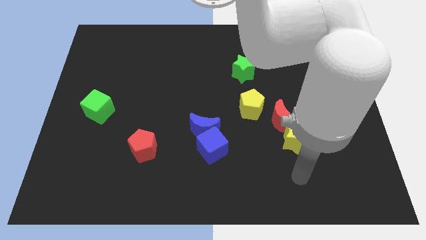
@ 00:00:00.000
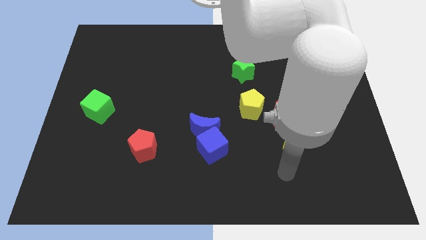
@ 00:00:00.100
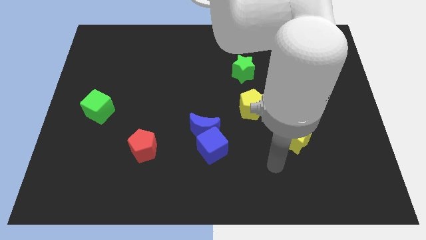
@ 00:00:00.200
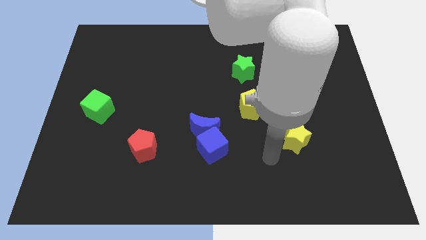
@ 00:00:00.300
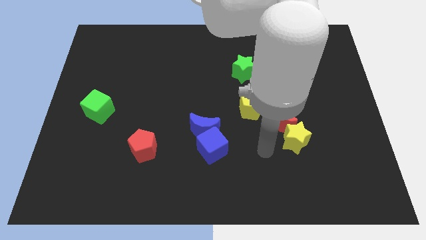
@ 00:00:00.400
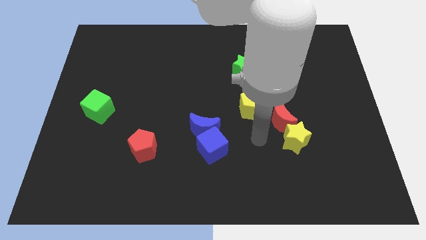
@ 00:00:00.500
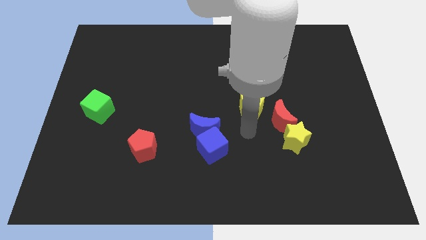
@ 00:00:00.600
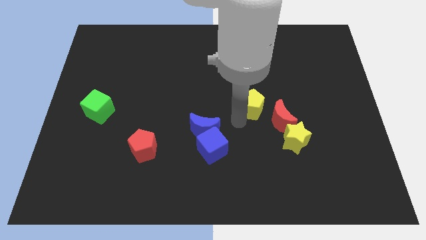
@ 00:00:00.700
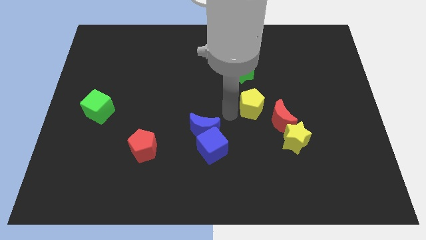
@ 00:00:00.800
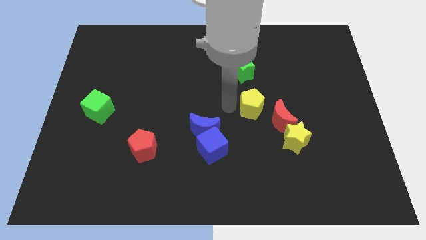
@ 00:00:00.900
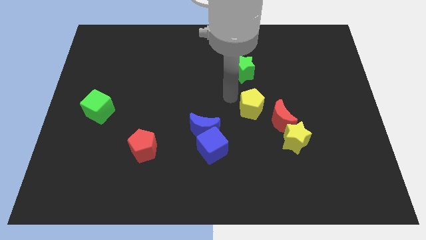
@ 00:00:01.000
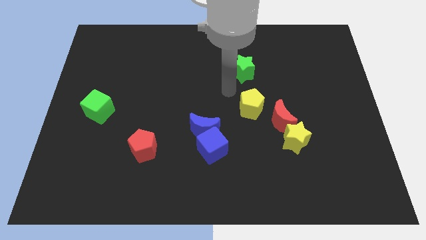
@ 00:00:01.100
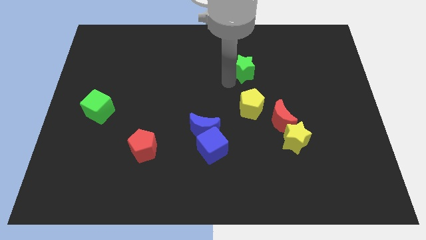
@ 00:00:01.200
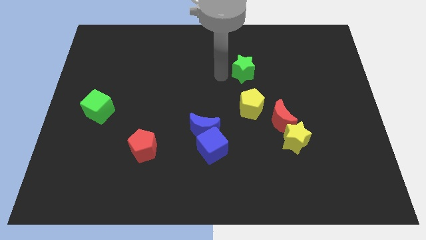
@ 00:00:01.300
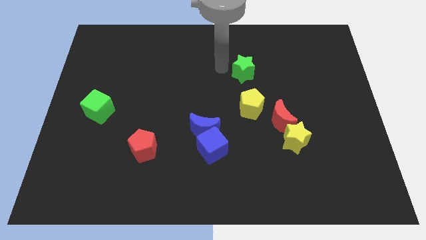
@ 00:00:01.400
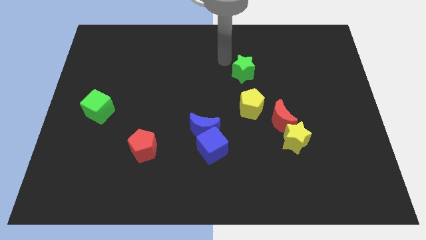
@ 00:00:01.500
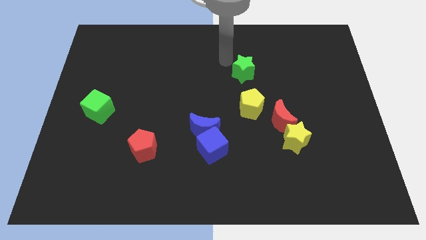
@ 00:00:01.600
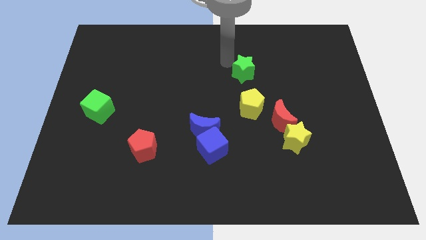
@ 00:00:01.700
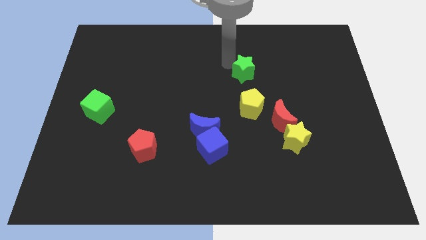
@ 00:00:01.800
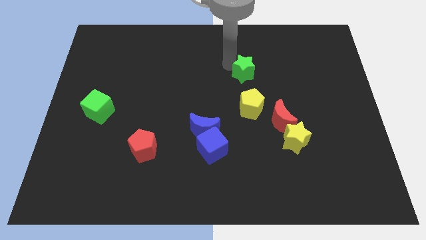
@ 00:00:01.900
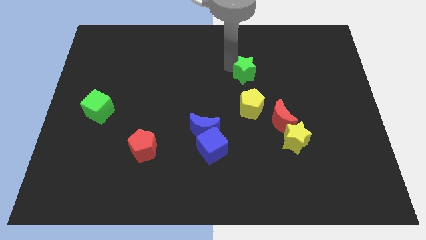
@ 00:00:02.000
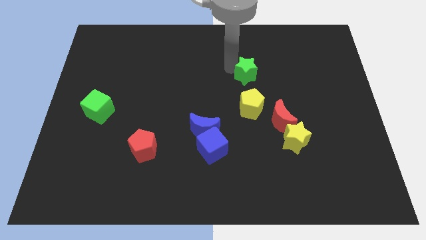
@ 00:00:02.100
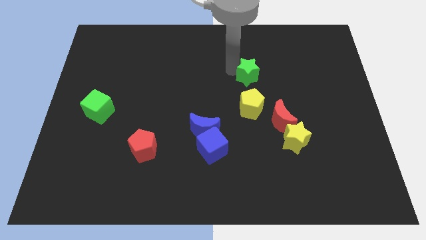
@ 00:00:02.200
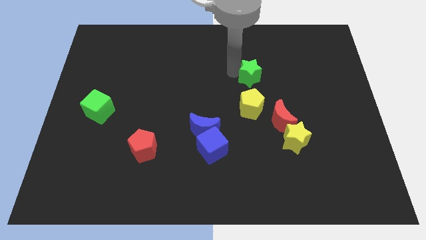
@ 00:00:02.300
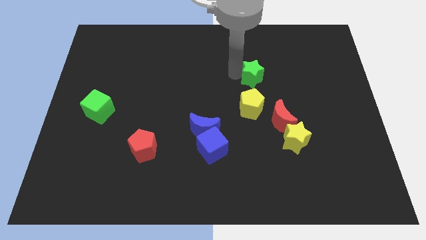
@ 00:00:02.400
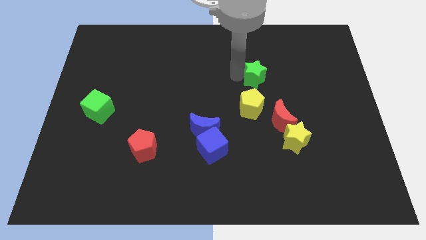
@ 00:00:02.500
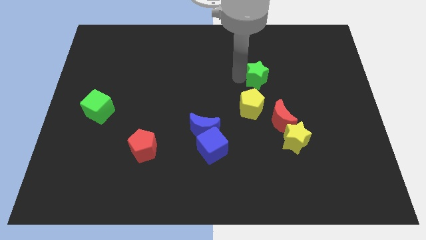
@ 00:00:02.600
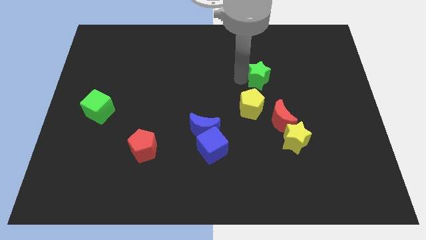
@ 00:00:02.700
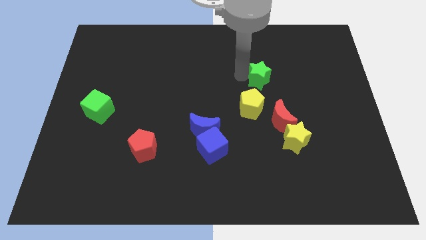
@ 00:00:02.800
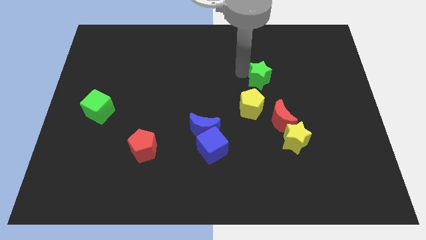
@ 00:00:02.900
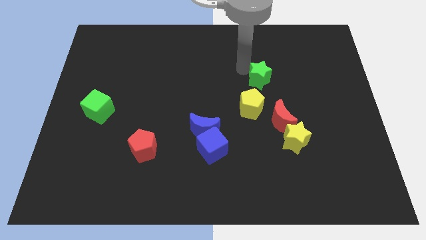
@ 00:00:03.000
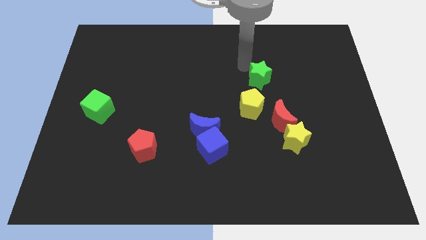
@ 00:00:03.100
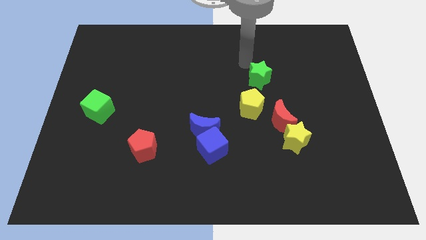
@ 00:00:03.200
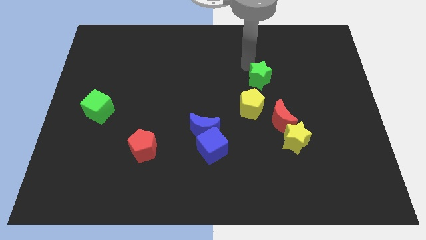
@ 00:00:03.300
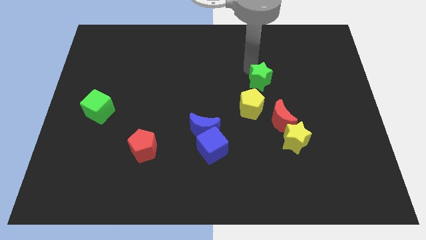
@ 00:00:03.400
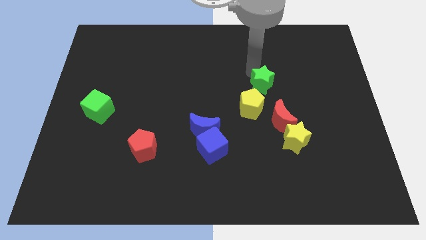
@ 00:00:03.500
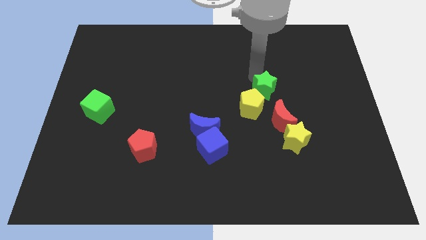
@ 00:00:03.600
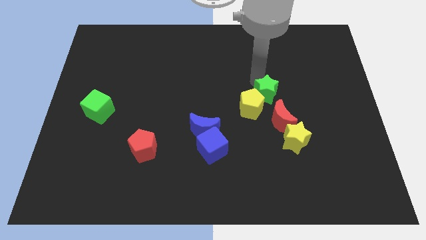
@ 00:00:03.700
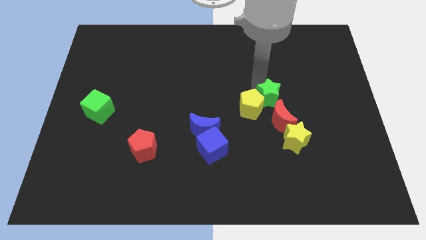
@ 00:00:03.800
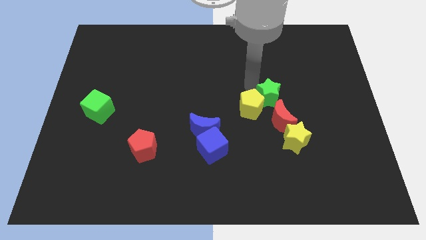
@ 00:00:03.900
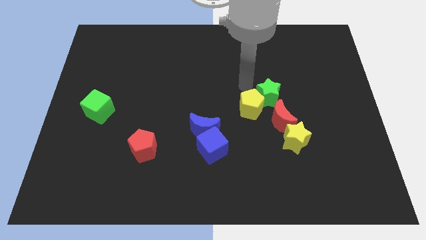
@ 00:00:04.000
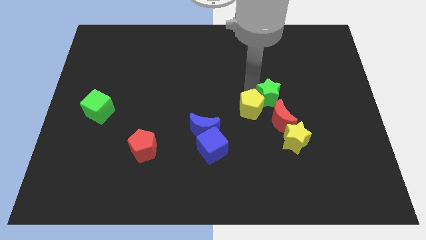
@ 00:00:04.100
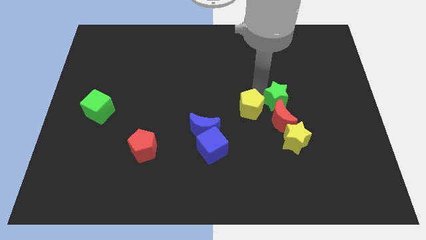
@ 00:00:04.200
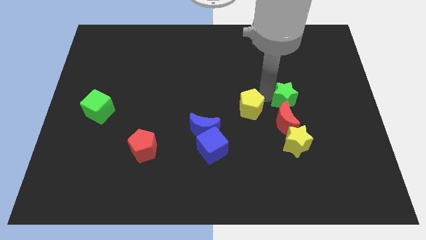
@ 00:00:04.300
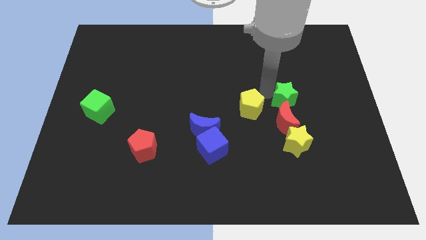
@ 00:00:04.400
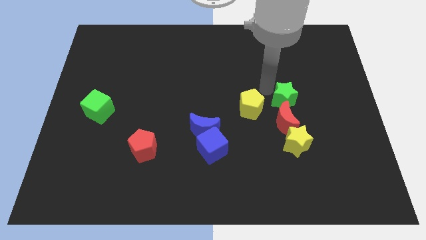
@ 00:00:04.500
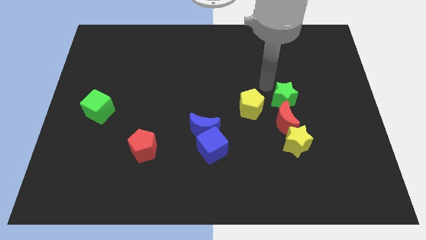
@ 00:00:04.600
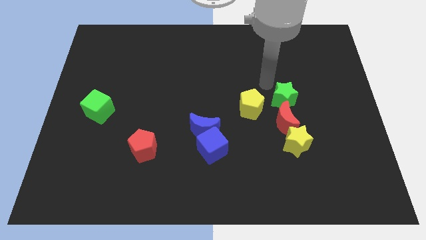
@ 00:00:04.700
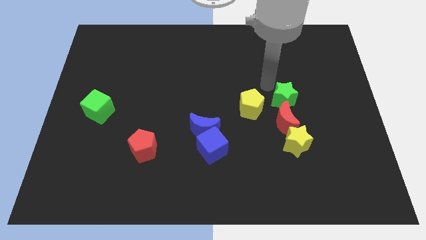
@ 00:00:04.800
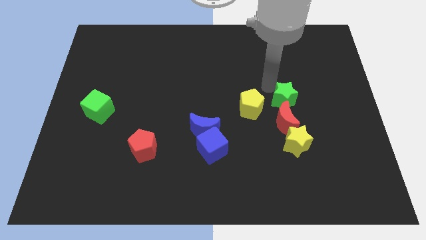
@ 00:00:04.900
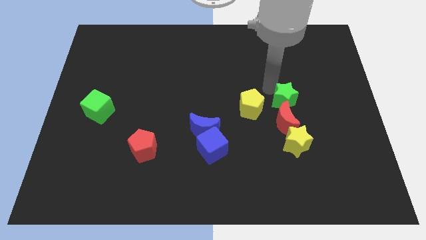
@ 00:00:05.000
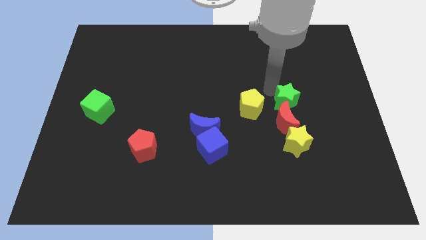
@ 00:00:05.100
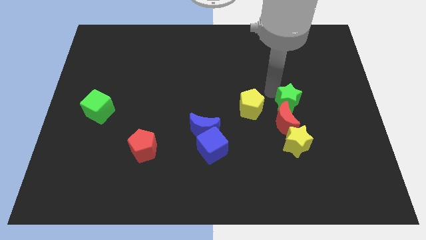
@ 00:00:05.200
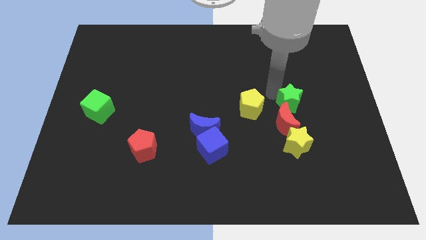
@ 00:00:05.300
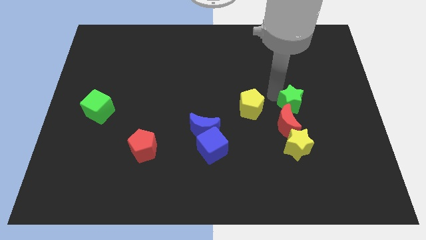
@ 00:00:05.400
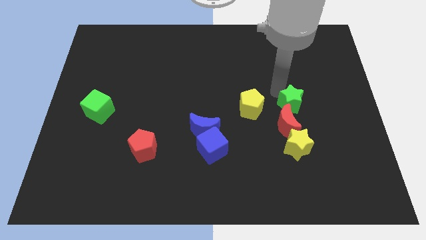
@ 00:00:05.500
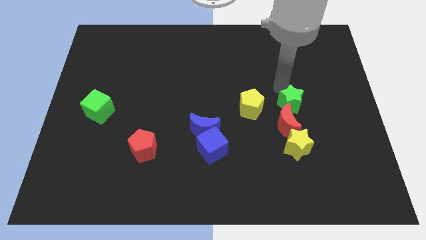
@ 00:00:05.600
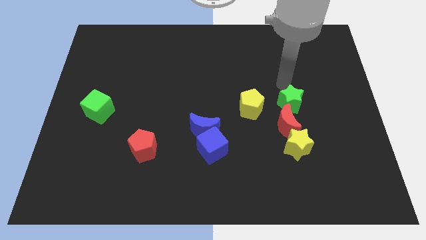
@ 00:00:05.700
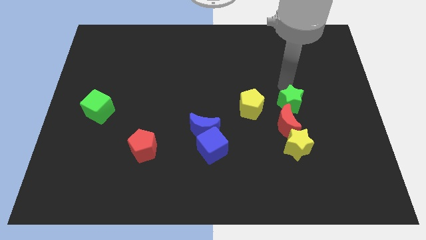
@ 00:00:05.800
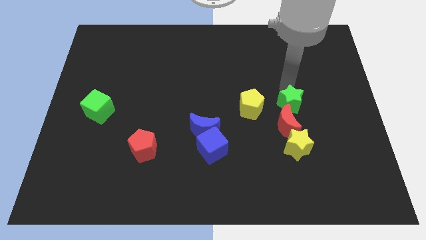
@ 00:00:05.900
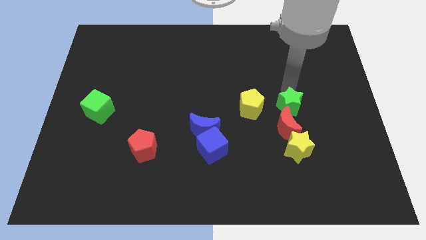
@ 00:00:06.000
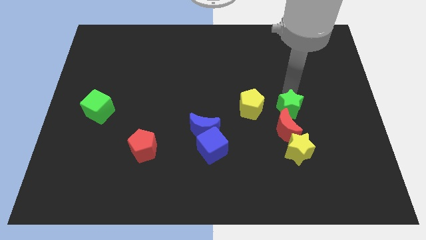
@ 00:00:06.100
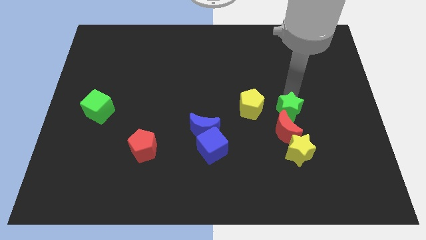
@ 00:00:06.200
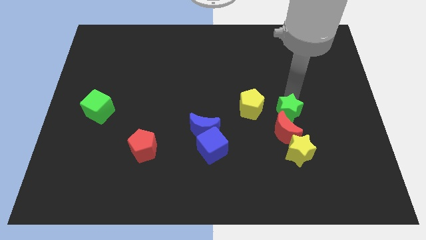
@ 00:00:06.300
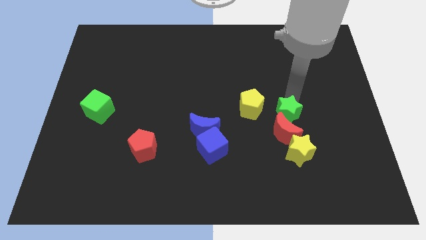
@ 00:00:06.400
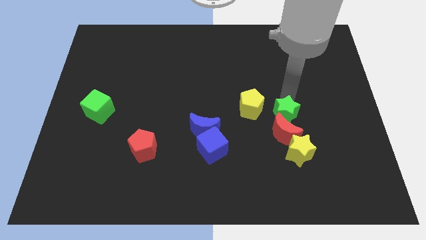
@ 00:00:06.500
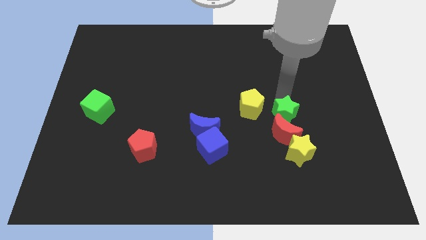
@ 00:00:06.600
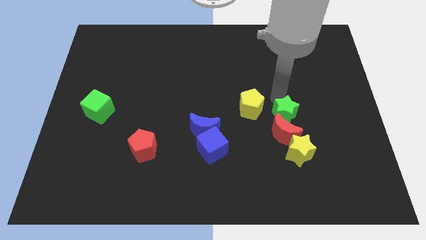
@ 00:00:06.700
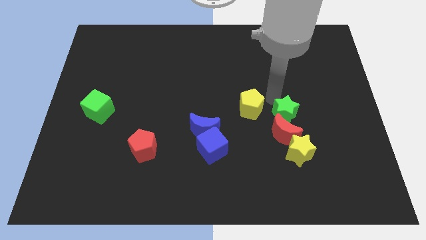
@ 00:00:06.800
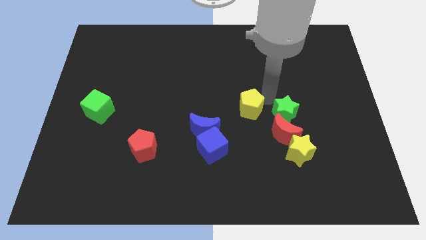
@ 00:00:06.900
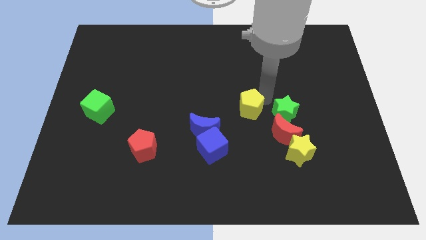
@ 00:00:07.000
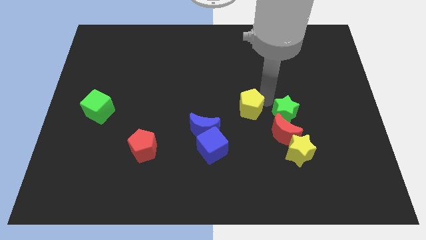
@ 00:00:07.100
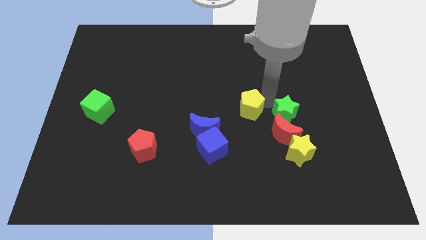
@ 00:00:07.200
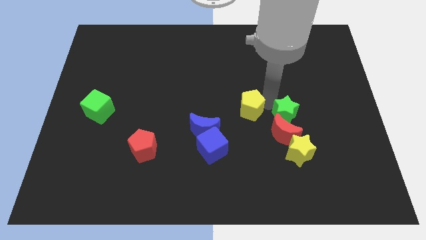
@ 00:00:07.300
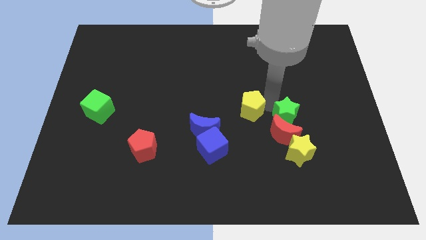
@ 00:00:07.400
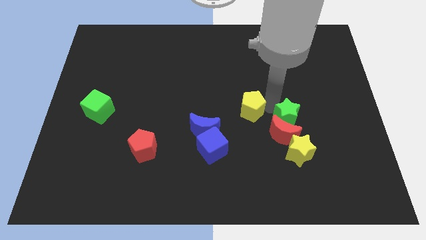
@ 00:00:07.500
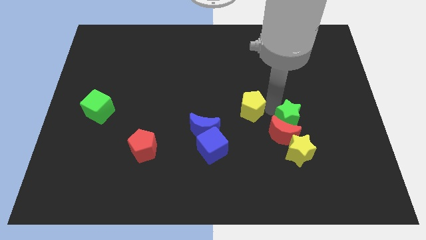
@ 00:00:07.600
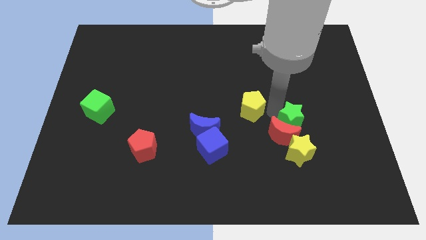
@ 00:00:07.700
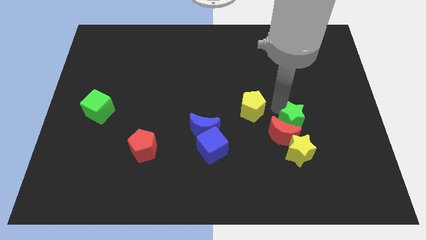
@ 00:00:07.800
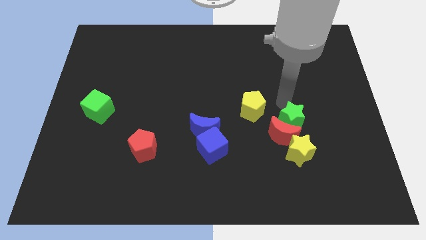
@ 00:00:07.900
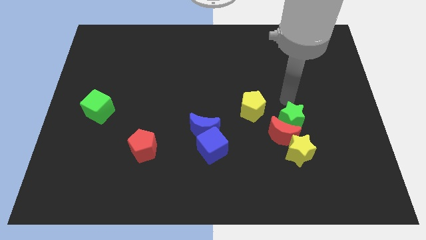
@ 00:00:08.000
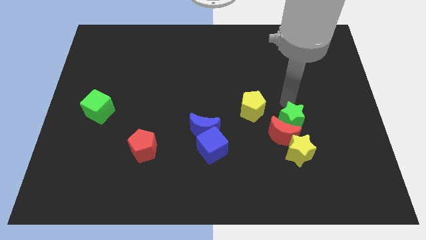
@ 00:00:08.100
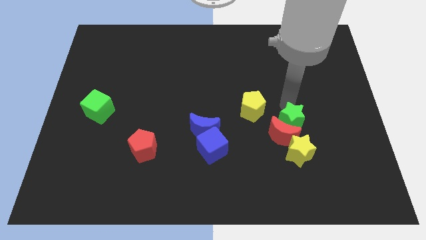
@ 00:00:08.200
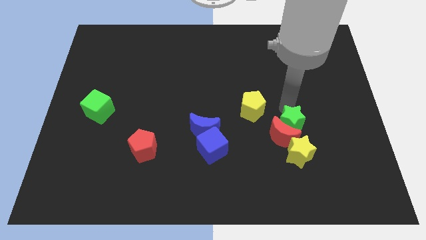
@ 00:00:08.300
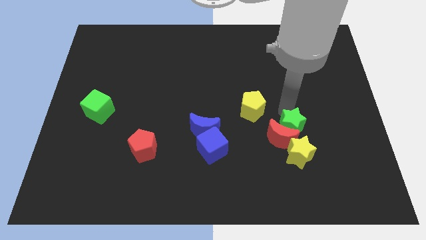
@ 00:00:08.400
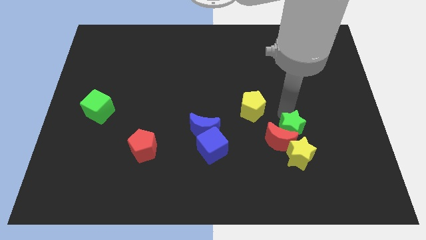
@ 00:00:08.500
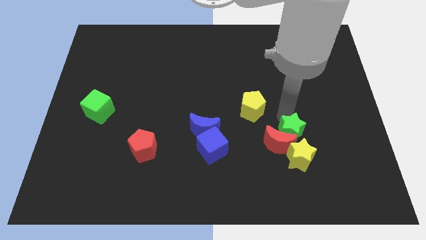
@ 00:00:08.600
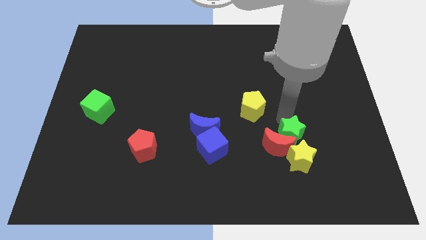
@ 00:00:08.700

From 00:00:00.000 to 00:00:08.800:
slide the green star close to the yellow star
